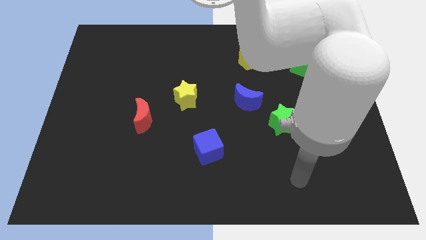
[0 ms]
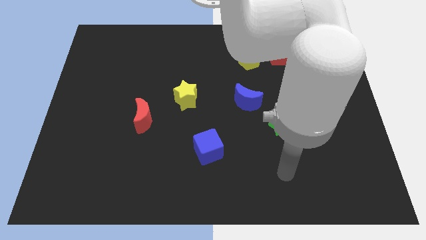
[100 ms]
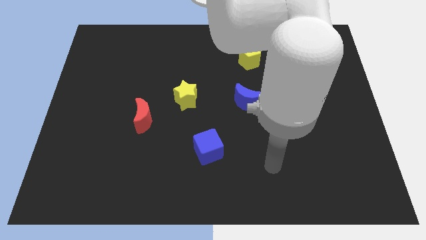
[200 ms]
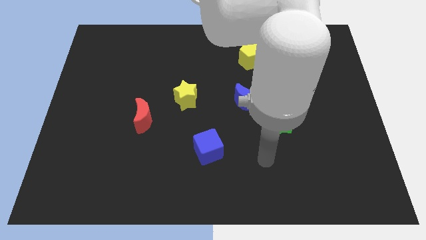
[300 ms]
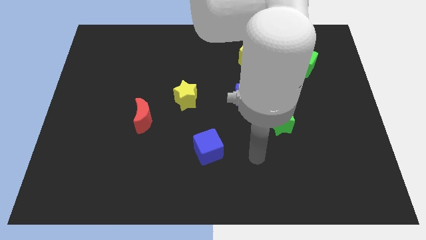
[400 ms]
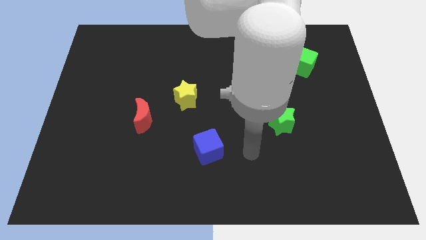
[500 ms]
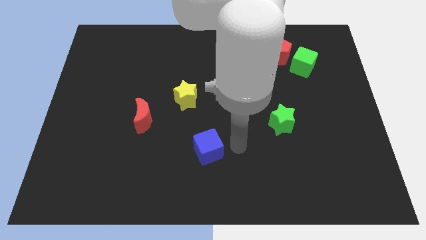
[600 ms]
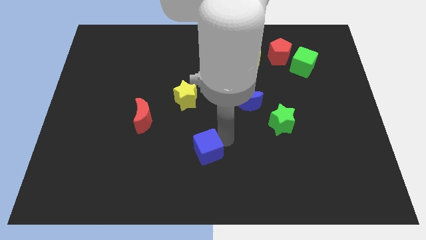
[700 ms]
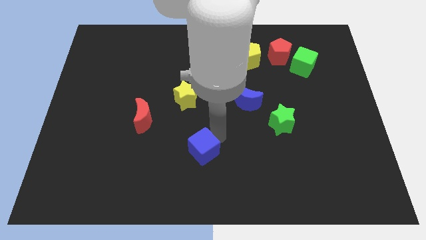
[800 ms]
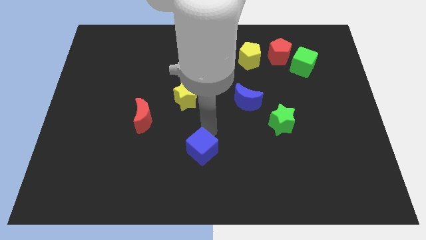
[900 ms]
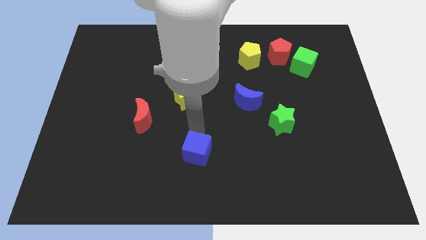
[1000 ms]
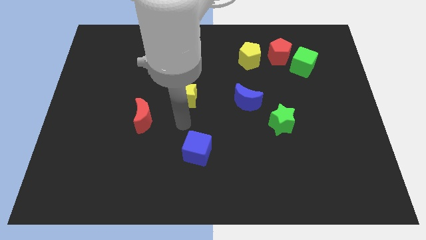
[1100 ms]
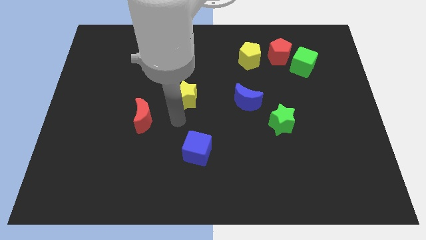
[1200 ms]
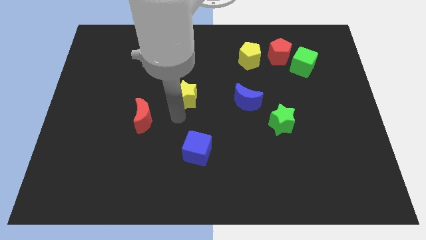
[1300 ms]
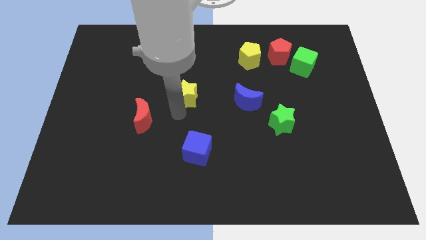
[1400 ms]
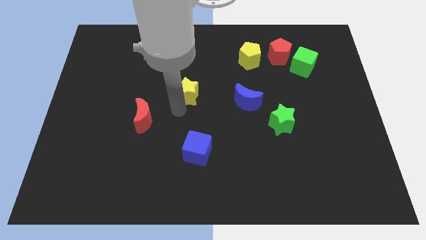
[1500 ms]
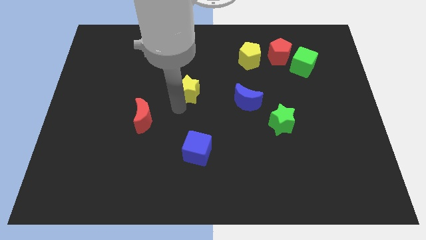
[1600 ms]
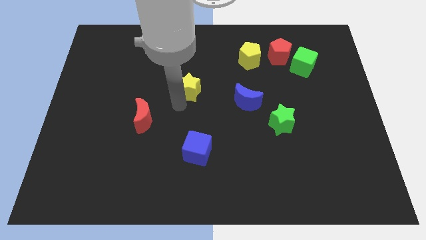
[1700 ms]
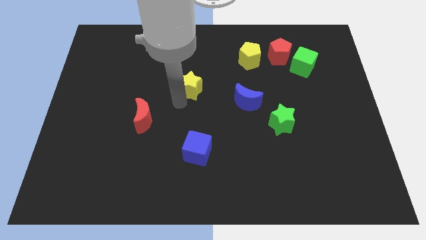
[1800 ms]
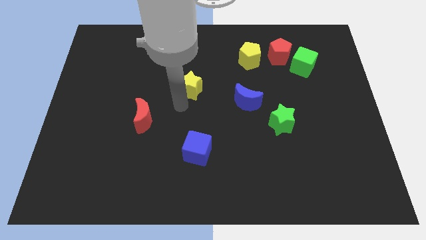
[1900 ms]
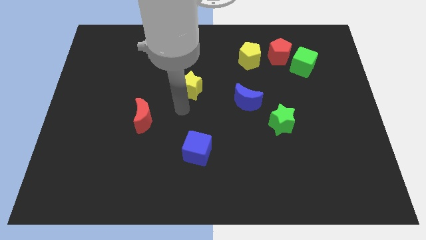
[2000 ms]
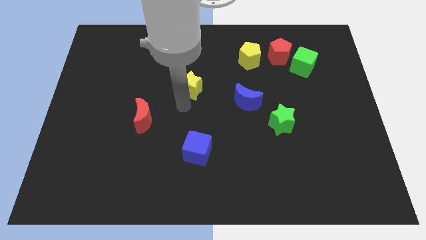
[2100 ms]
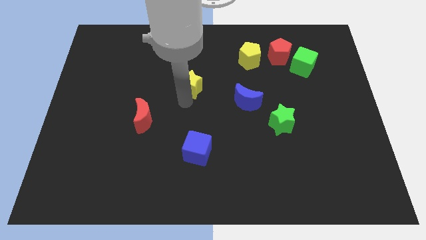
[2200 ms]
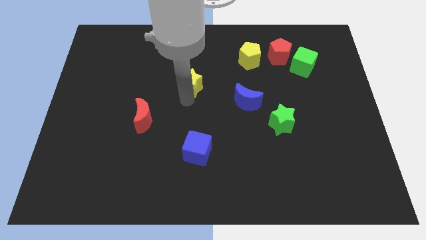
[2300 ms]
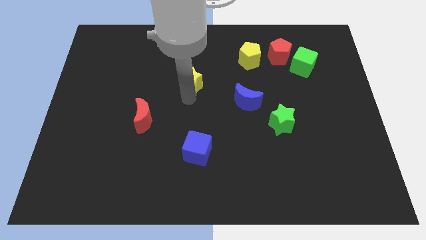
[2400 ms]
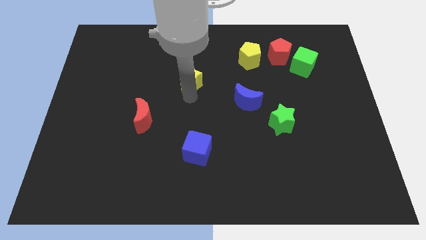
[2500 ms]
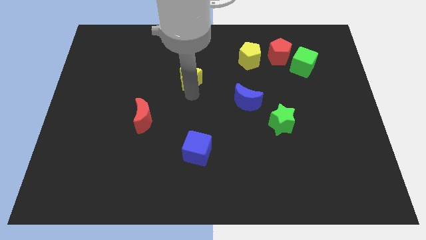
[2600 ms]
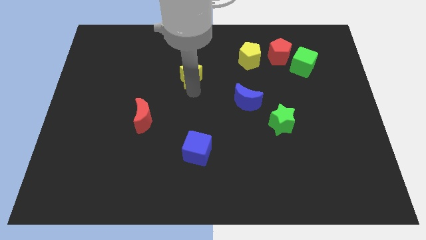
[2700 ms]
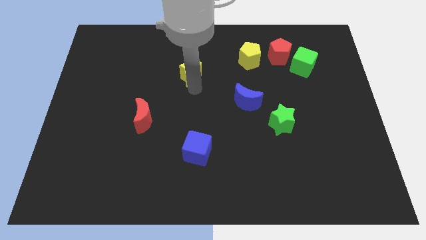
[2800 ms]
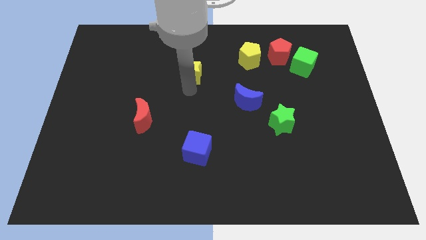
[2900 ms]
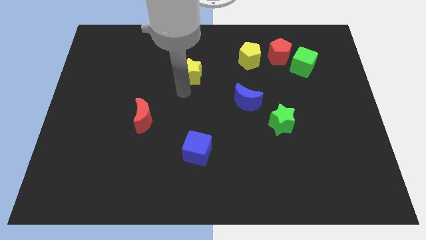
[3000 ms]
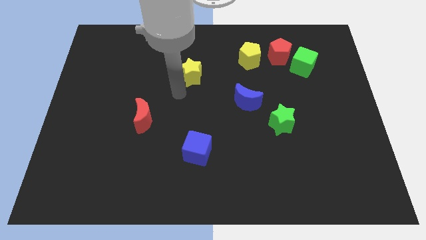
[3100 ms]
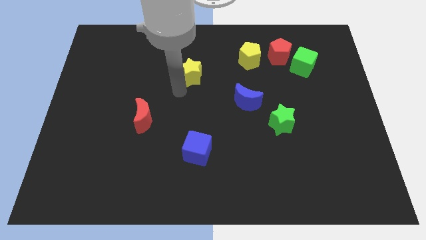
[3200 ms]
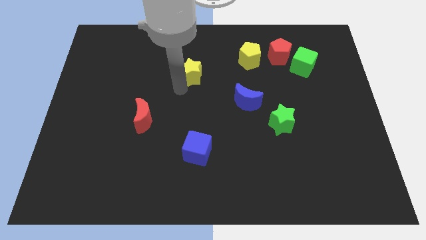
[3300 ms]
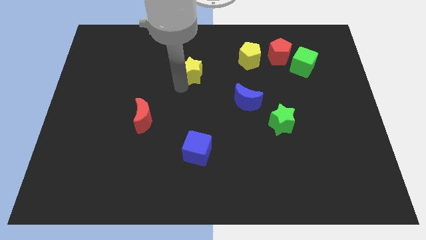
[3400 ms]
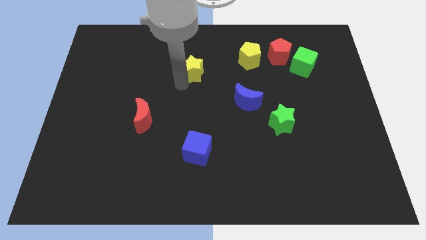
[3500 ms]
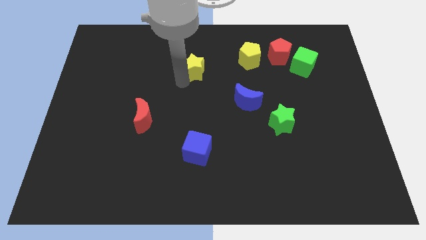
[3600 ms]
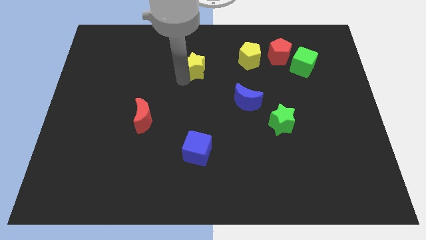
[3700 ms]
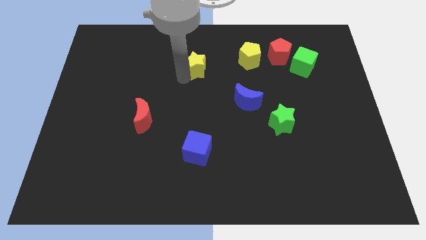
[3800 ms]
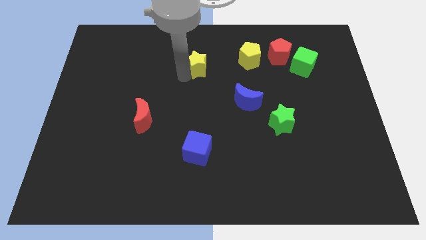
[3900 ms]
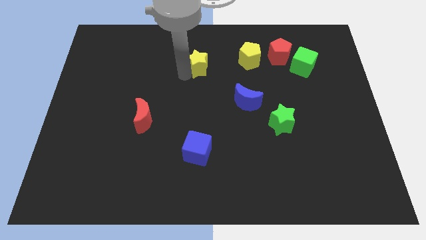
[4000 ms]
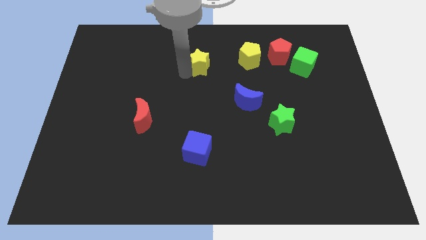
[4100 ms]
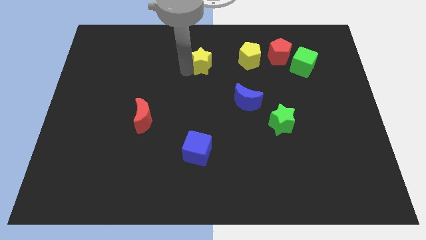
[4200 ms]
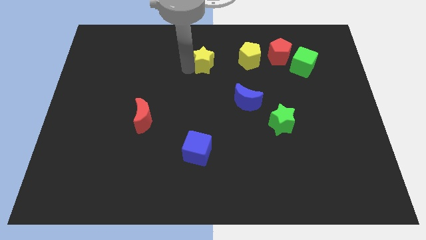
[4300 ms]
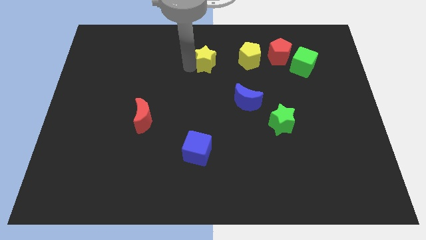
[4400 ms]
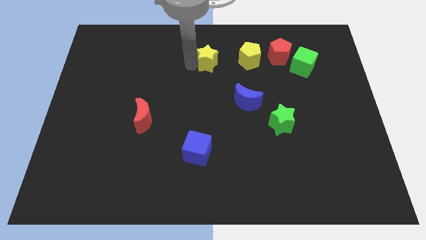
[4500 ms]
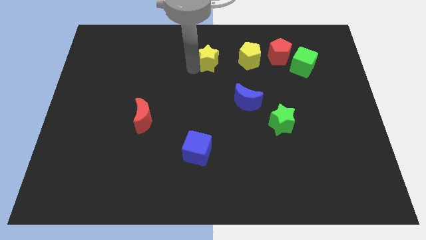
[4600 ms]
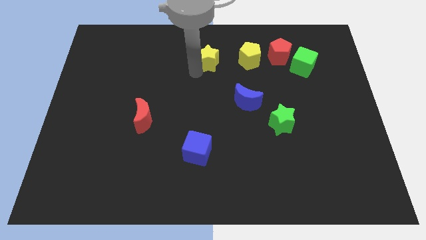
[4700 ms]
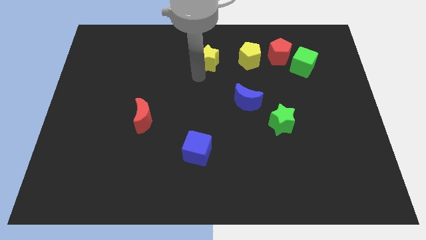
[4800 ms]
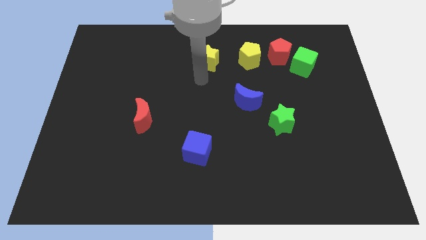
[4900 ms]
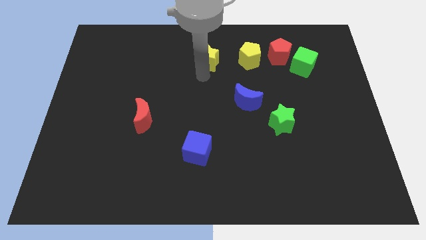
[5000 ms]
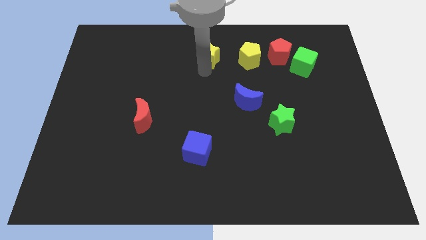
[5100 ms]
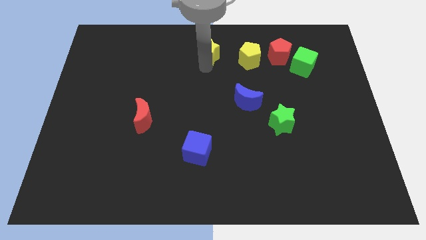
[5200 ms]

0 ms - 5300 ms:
push the yellow star to the towards your base
